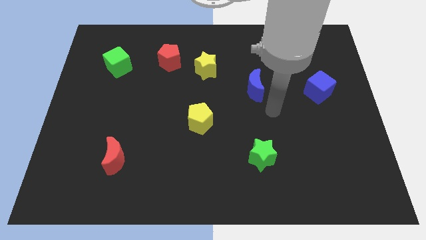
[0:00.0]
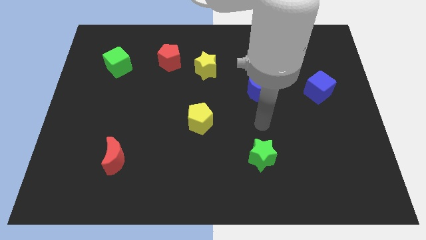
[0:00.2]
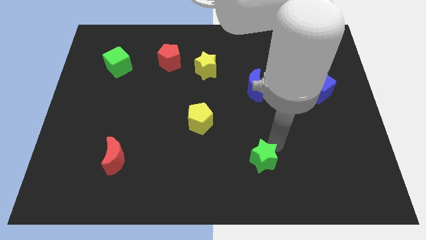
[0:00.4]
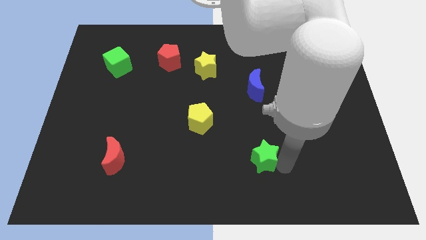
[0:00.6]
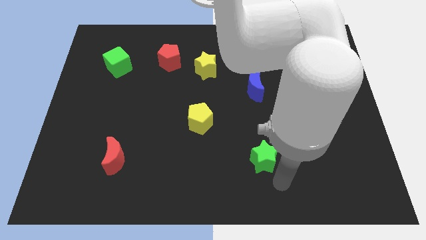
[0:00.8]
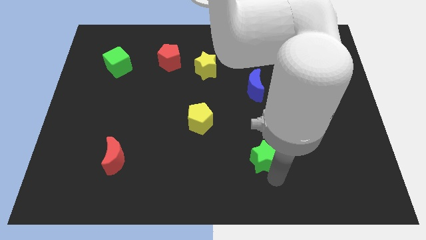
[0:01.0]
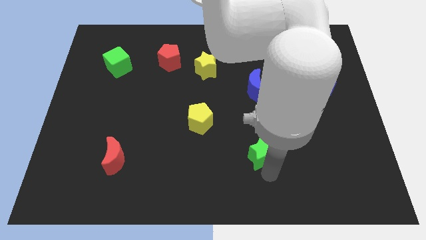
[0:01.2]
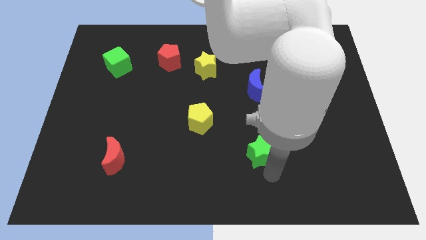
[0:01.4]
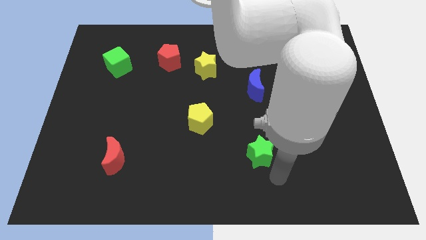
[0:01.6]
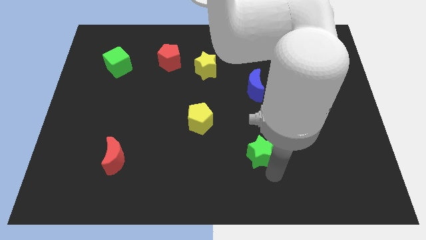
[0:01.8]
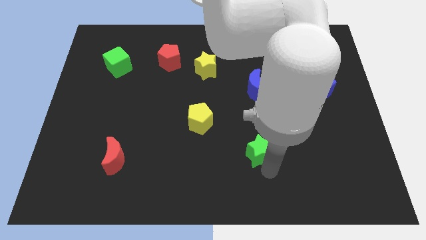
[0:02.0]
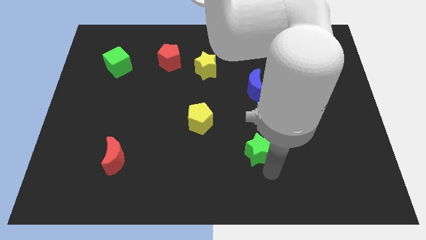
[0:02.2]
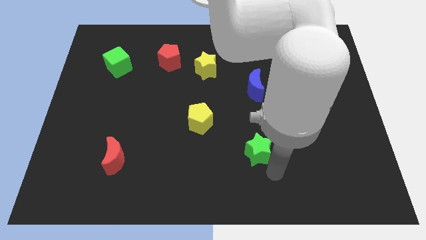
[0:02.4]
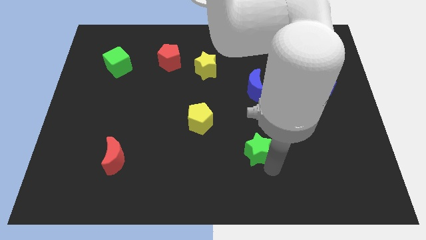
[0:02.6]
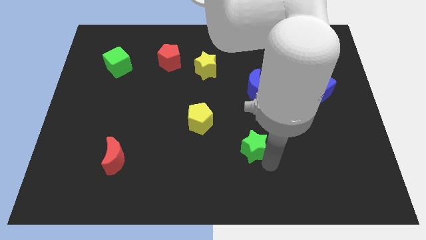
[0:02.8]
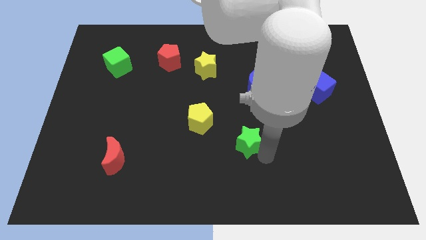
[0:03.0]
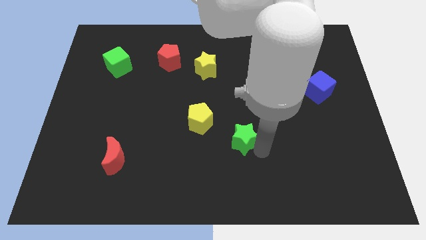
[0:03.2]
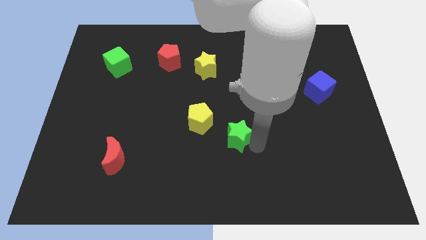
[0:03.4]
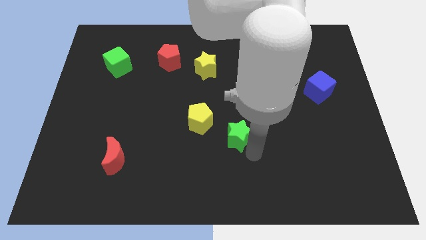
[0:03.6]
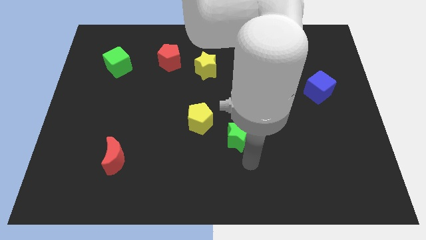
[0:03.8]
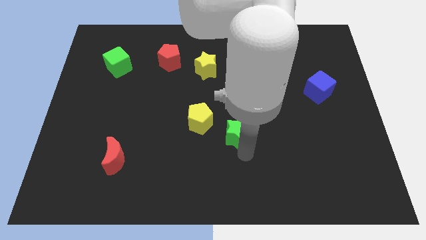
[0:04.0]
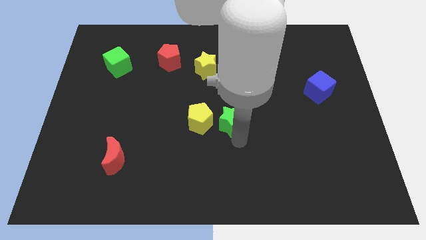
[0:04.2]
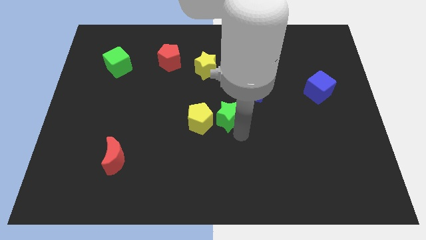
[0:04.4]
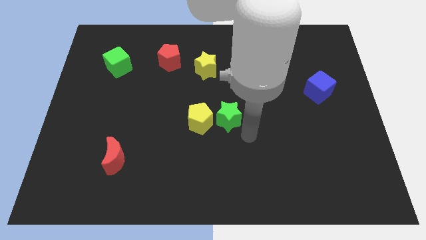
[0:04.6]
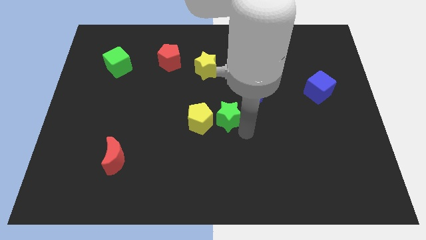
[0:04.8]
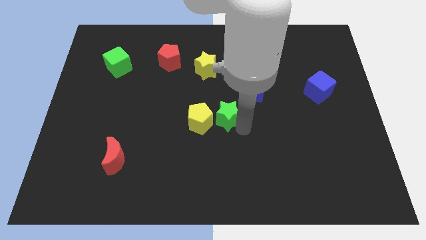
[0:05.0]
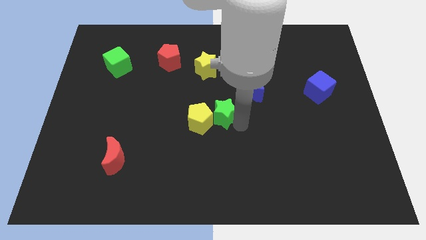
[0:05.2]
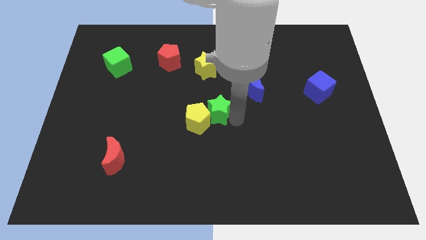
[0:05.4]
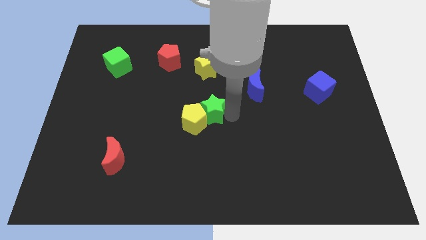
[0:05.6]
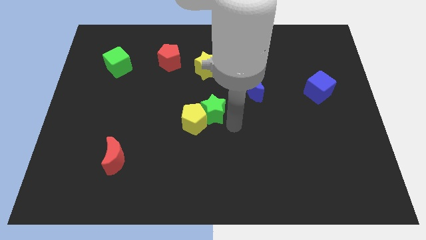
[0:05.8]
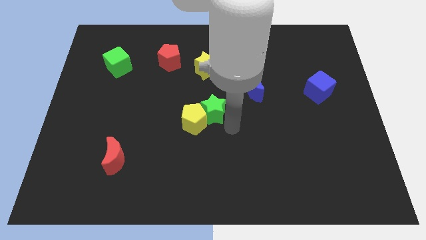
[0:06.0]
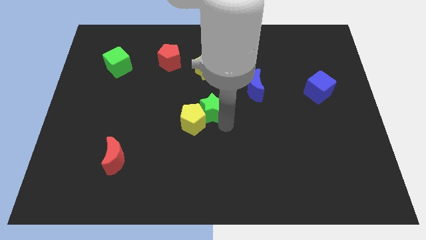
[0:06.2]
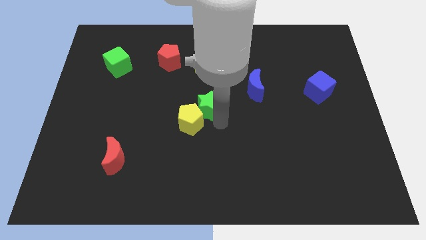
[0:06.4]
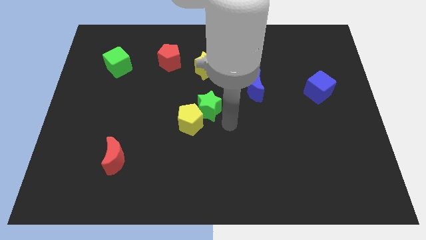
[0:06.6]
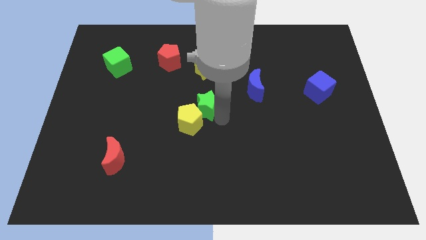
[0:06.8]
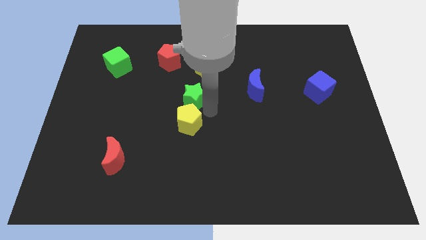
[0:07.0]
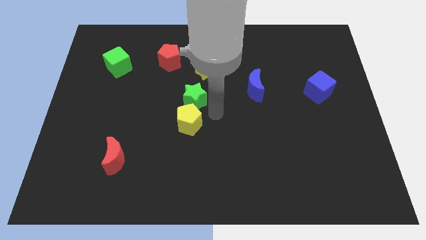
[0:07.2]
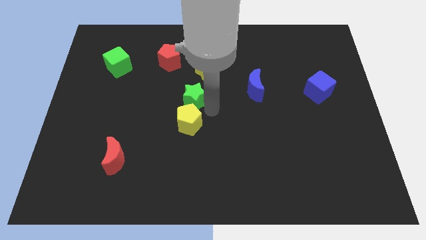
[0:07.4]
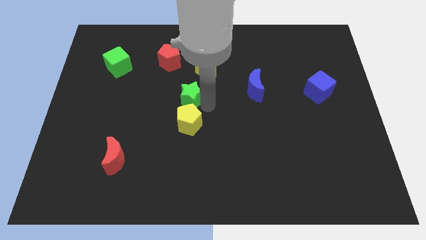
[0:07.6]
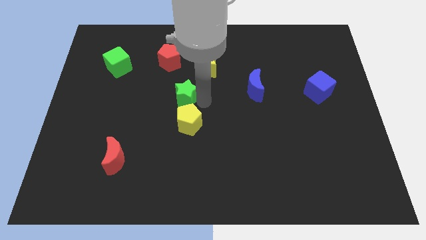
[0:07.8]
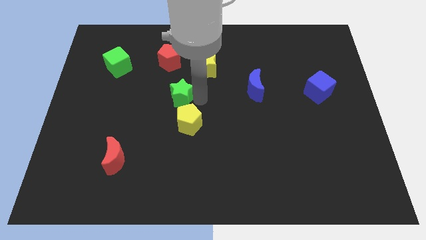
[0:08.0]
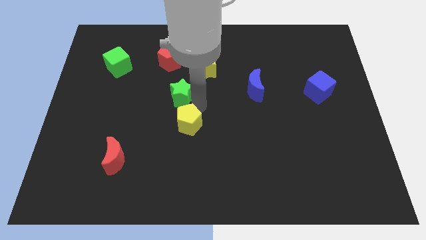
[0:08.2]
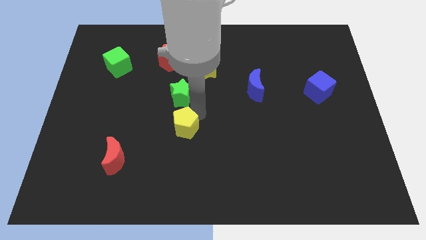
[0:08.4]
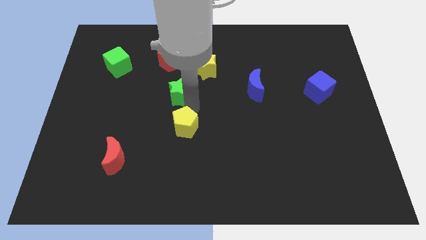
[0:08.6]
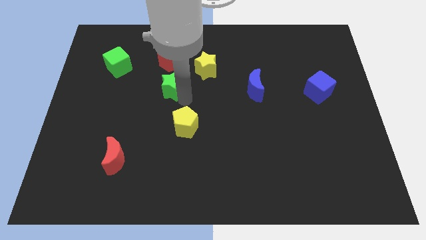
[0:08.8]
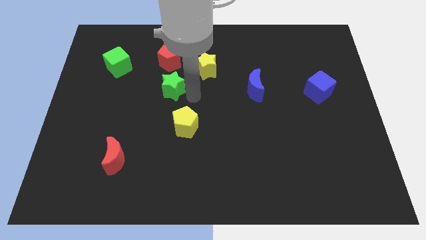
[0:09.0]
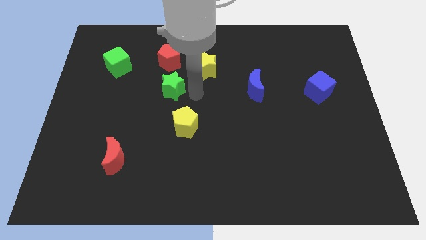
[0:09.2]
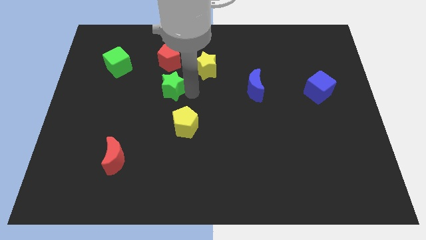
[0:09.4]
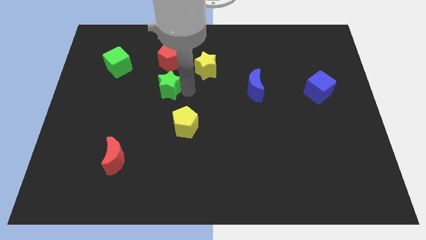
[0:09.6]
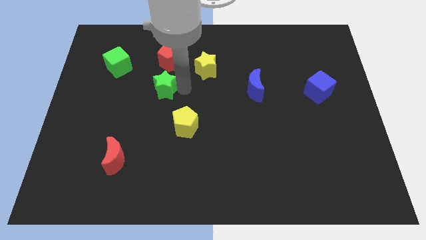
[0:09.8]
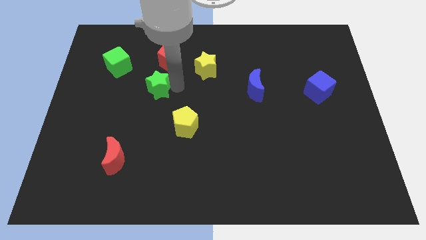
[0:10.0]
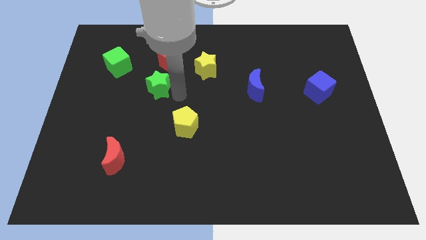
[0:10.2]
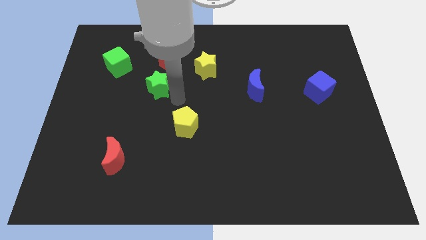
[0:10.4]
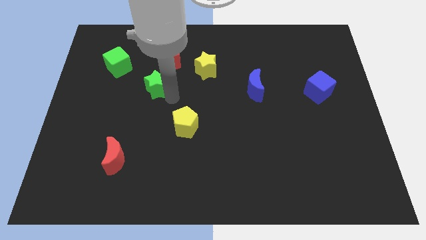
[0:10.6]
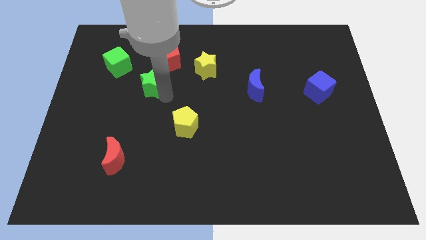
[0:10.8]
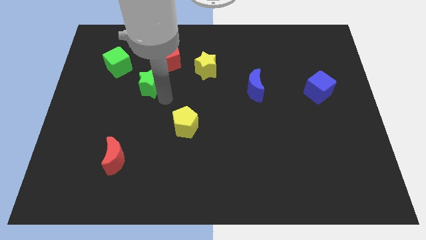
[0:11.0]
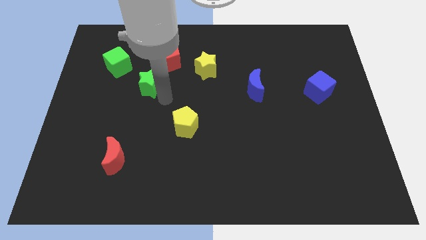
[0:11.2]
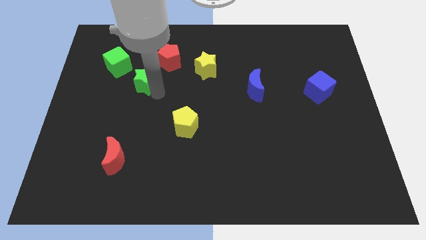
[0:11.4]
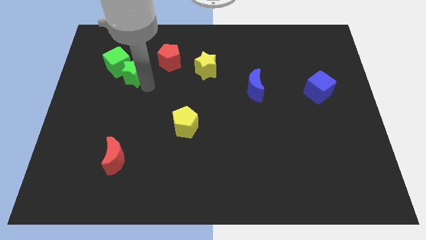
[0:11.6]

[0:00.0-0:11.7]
move the green star to the green cube
